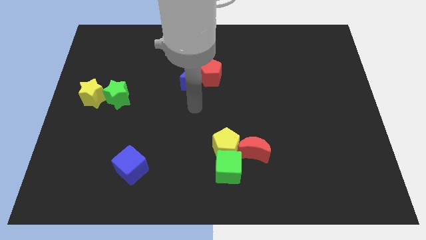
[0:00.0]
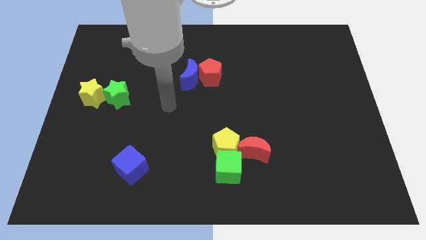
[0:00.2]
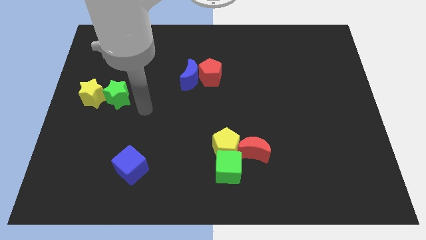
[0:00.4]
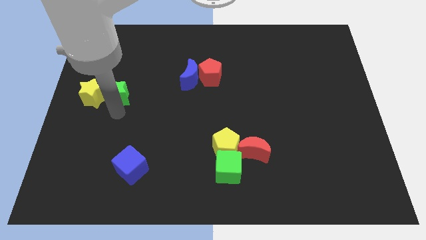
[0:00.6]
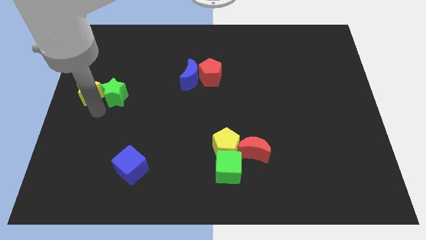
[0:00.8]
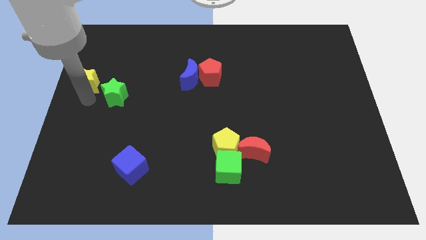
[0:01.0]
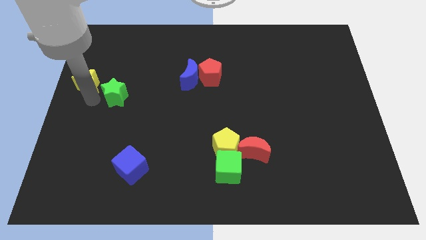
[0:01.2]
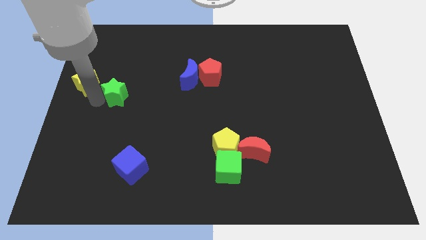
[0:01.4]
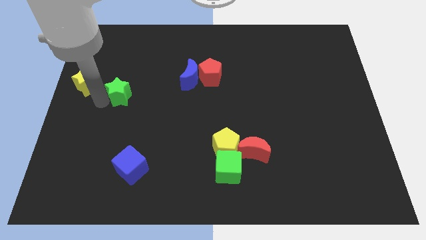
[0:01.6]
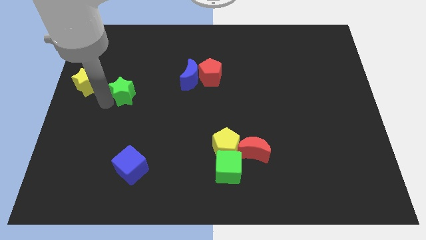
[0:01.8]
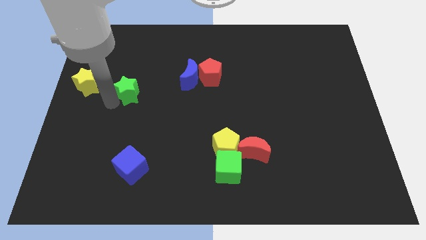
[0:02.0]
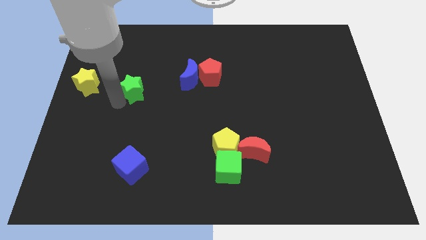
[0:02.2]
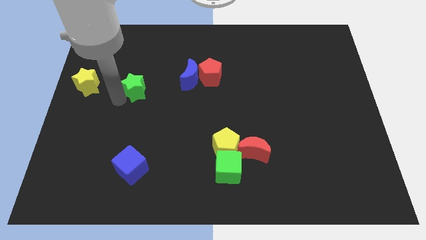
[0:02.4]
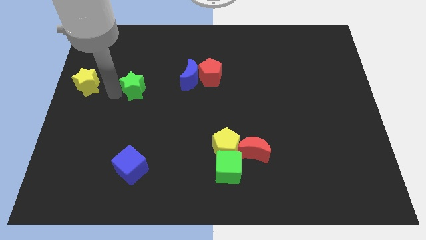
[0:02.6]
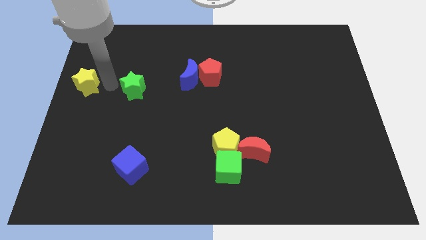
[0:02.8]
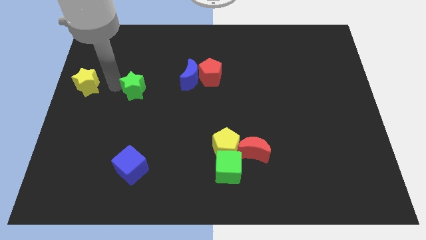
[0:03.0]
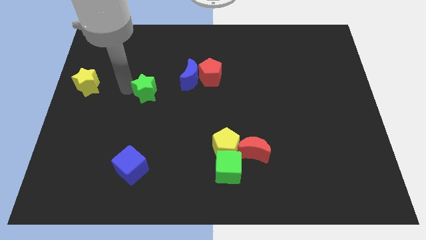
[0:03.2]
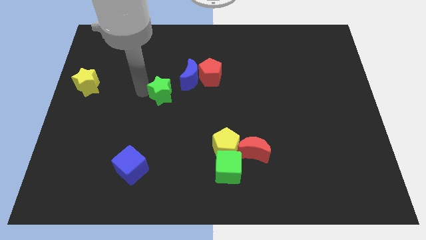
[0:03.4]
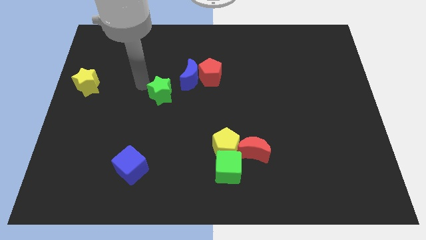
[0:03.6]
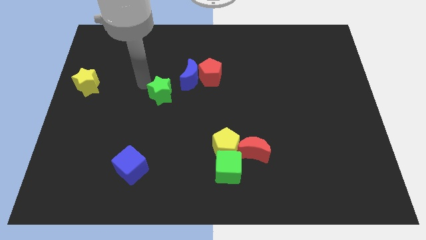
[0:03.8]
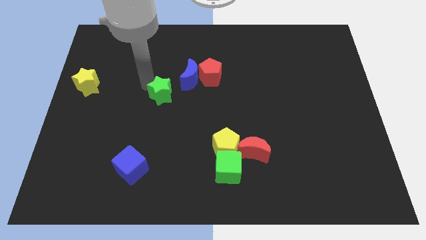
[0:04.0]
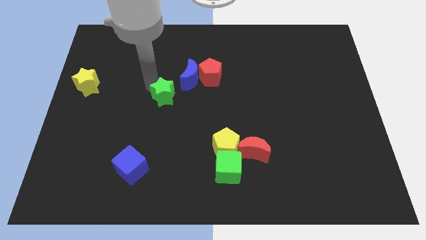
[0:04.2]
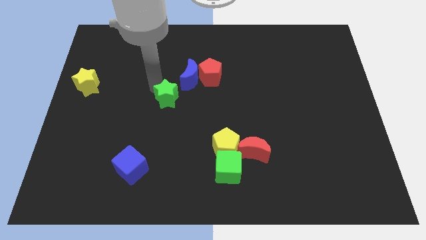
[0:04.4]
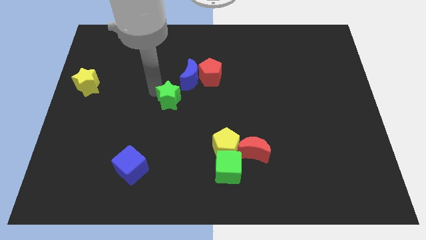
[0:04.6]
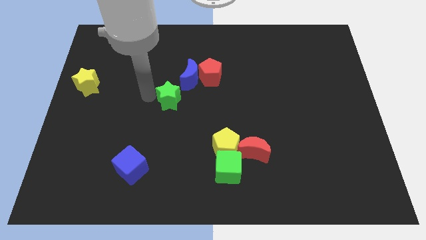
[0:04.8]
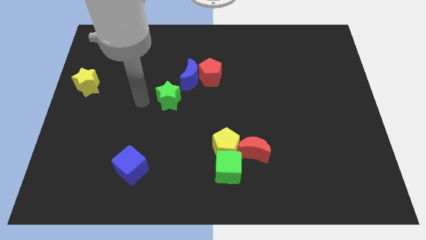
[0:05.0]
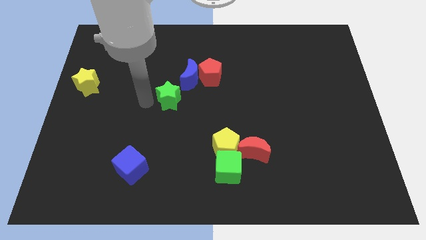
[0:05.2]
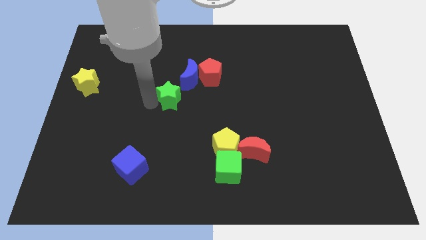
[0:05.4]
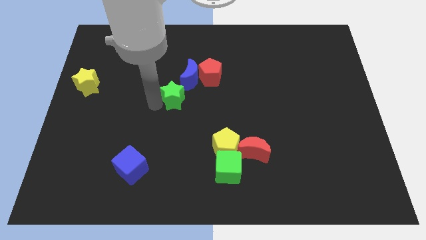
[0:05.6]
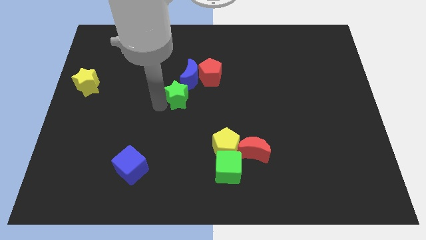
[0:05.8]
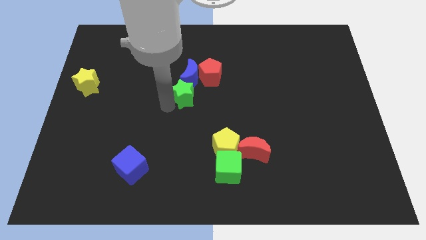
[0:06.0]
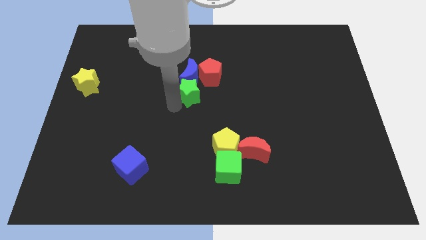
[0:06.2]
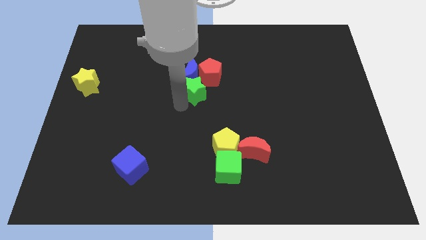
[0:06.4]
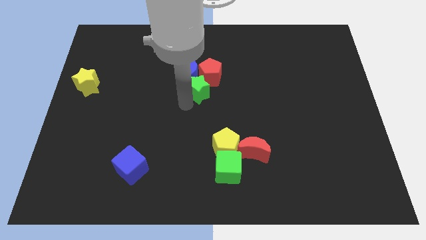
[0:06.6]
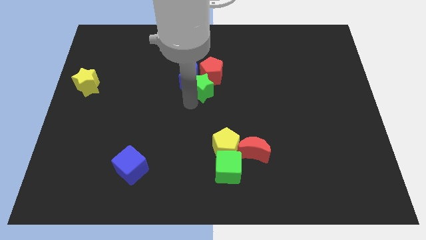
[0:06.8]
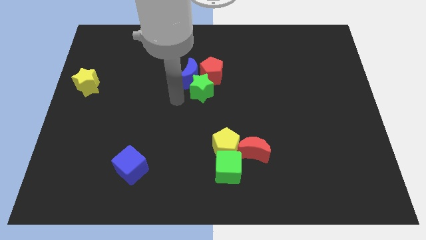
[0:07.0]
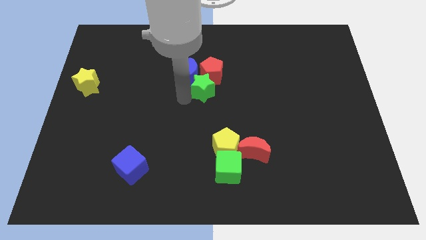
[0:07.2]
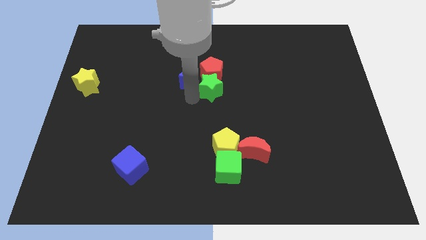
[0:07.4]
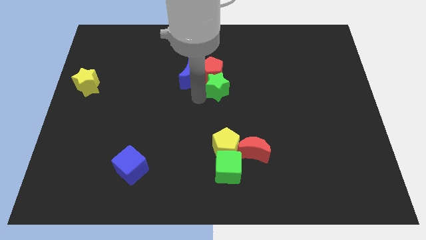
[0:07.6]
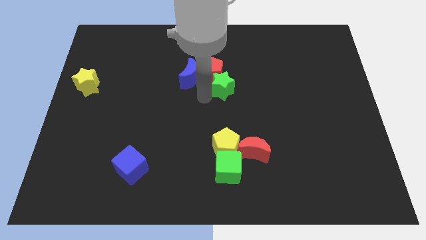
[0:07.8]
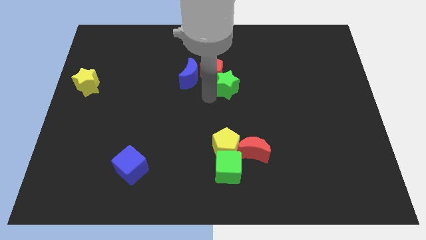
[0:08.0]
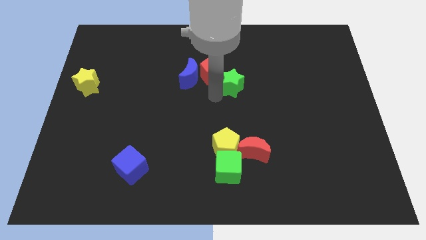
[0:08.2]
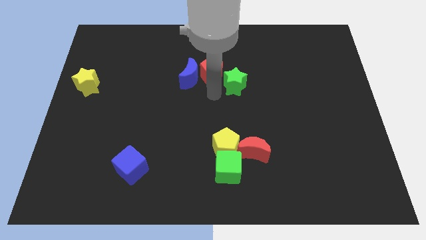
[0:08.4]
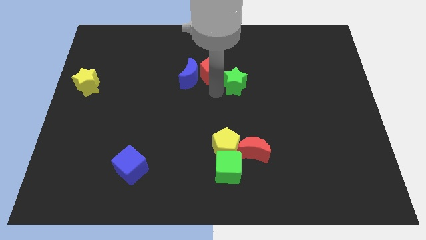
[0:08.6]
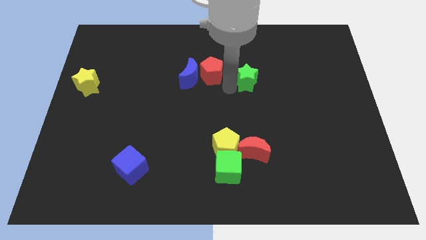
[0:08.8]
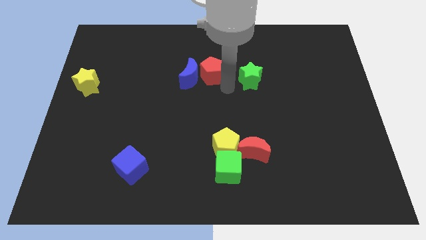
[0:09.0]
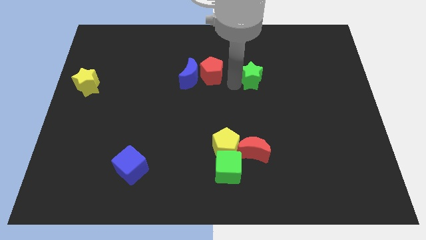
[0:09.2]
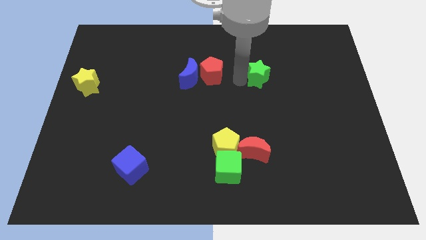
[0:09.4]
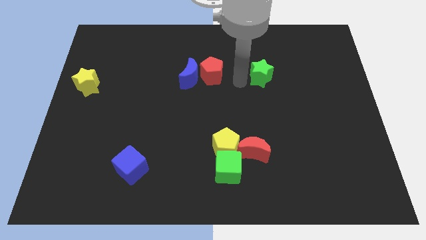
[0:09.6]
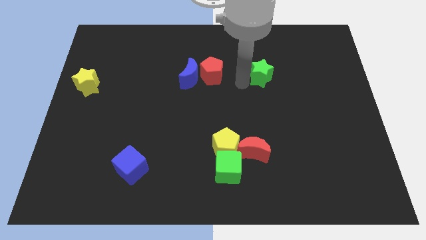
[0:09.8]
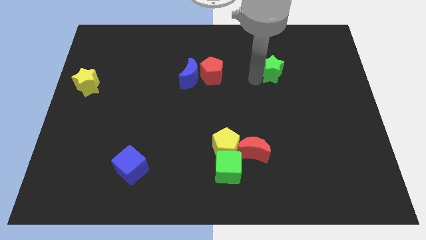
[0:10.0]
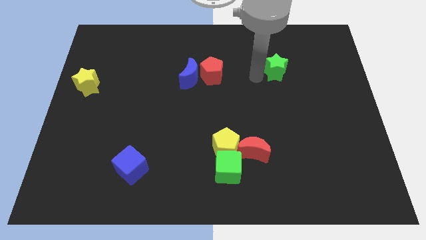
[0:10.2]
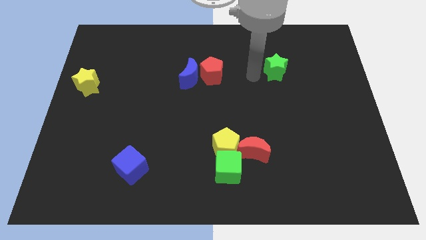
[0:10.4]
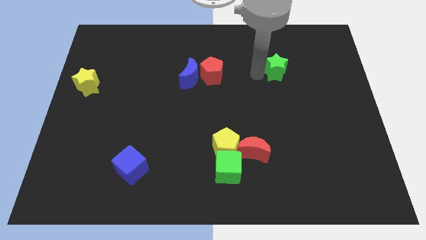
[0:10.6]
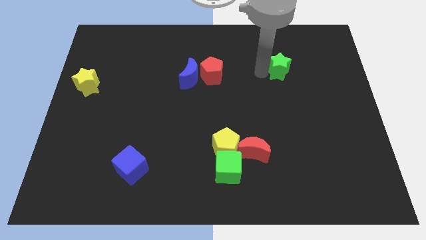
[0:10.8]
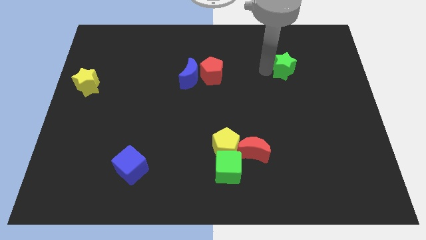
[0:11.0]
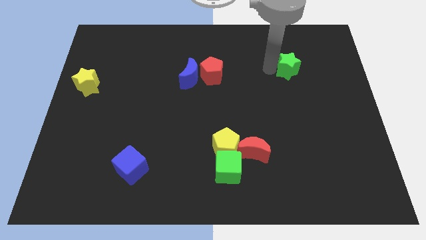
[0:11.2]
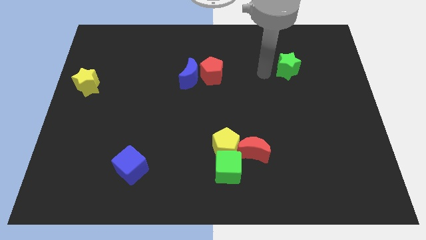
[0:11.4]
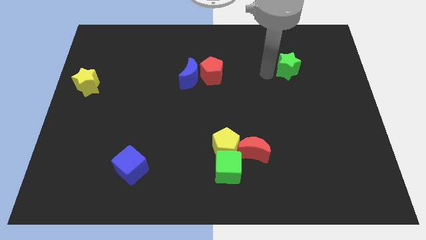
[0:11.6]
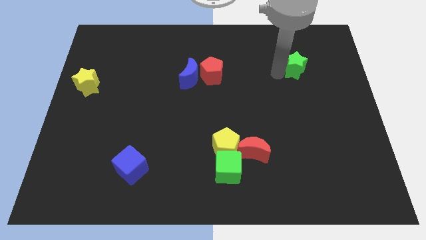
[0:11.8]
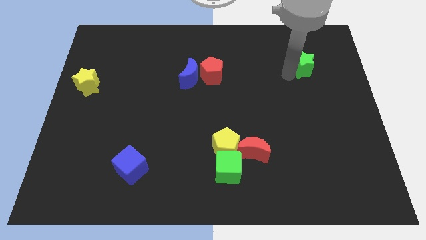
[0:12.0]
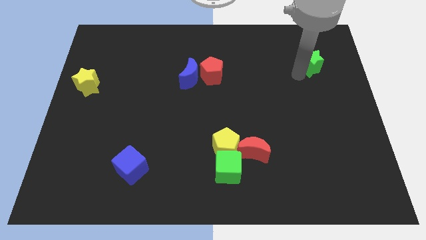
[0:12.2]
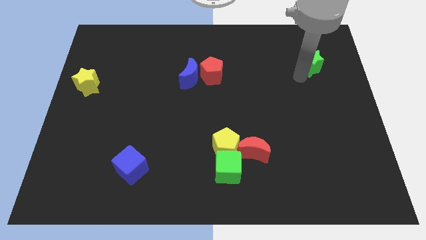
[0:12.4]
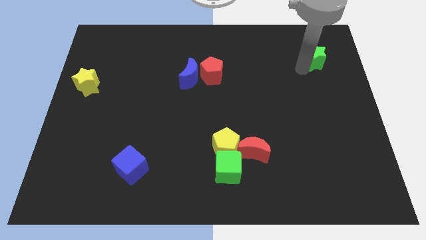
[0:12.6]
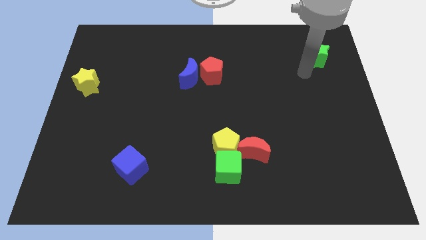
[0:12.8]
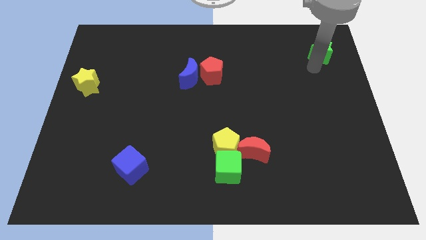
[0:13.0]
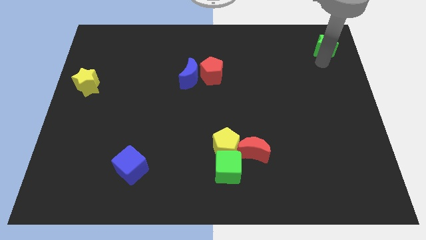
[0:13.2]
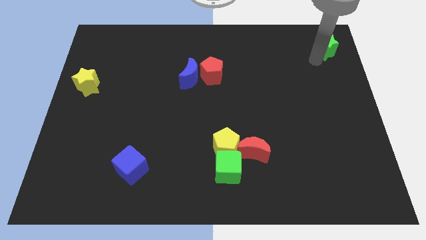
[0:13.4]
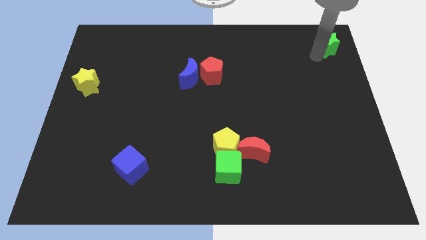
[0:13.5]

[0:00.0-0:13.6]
push the green star to the top right

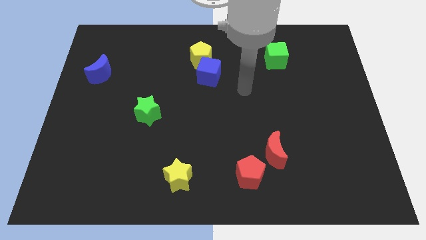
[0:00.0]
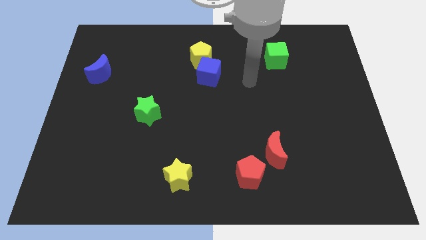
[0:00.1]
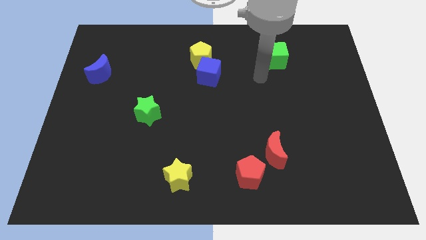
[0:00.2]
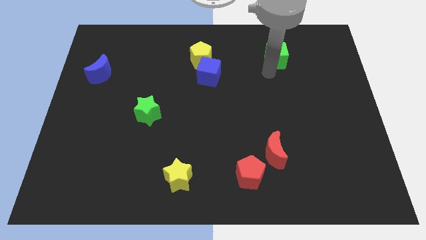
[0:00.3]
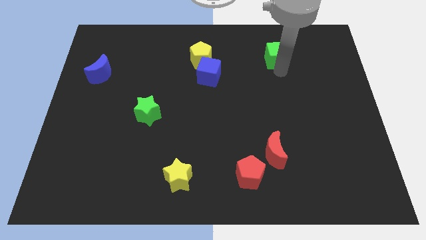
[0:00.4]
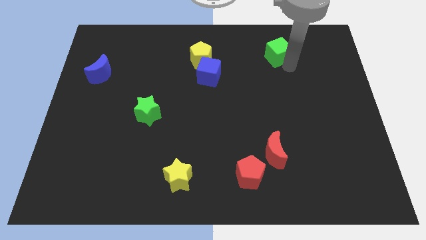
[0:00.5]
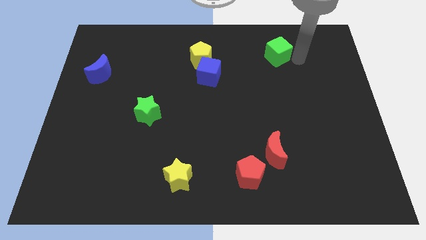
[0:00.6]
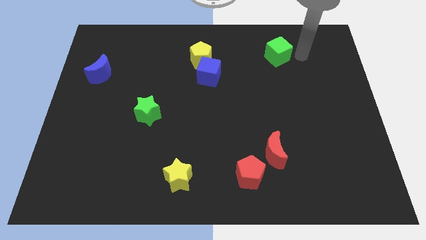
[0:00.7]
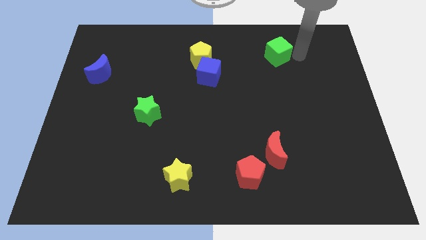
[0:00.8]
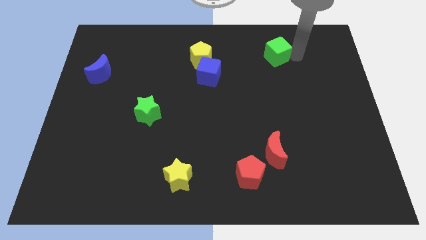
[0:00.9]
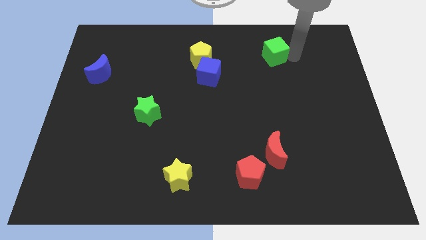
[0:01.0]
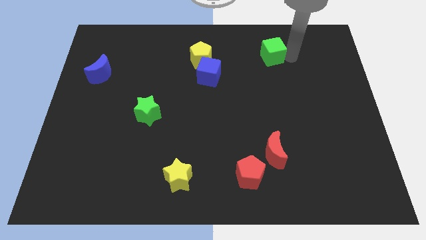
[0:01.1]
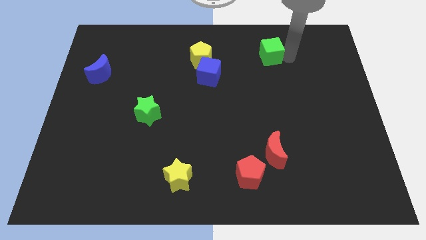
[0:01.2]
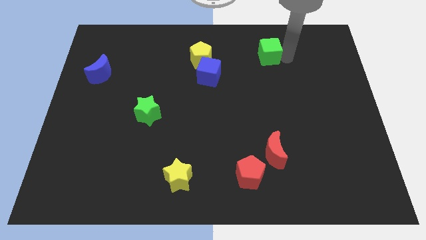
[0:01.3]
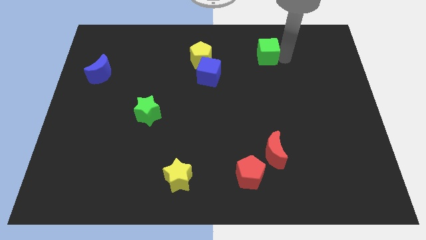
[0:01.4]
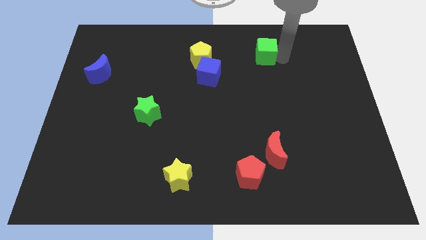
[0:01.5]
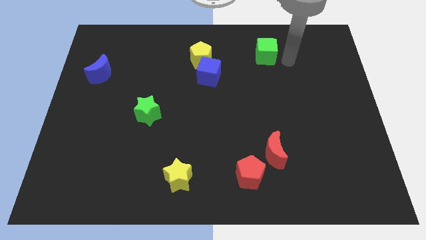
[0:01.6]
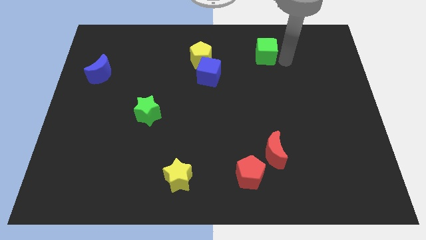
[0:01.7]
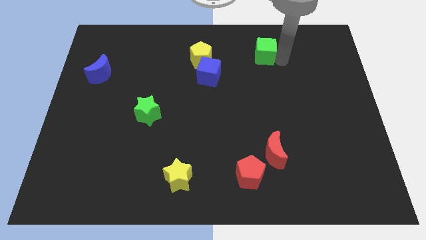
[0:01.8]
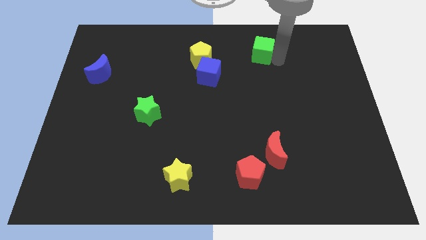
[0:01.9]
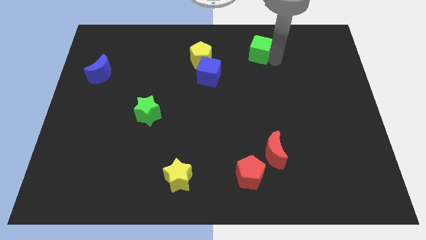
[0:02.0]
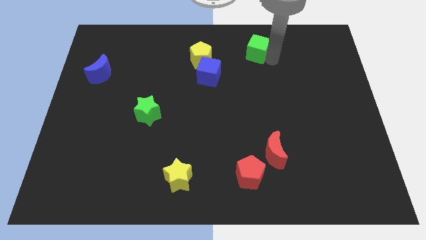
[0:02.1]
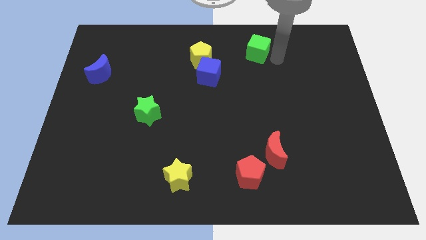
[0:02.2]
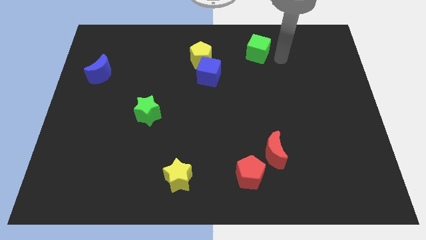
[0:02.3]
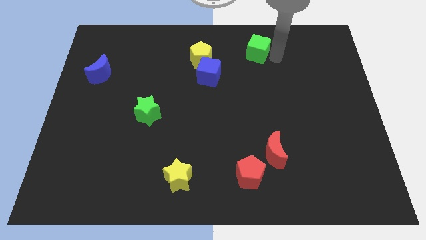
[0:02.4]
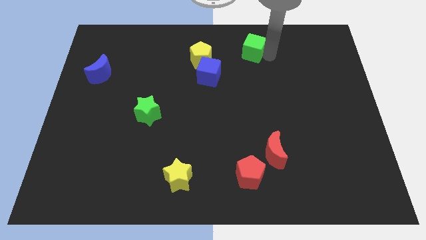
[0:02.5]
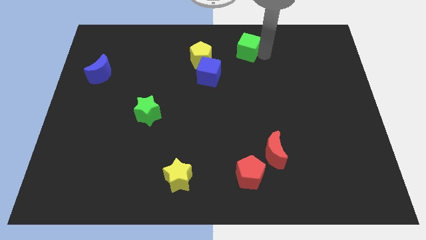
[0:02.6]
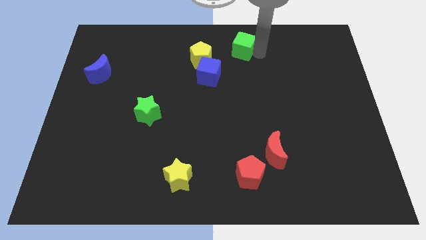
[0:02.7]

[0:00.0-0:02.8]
move the green cube to the top
